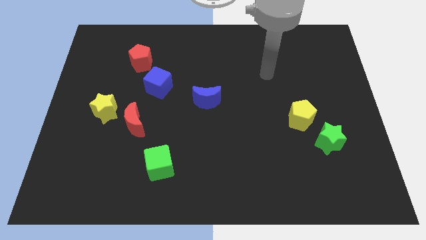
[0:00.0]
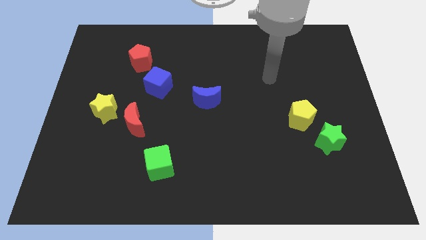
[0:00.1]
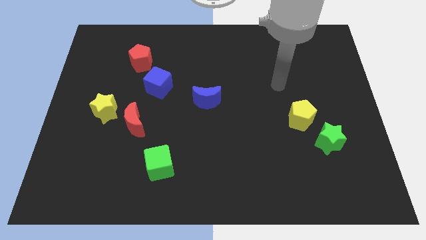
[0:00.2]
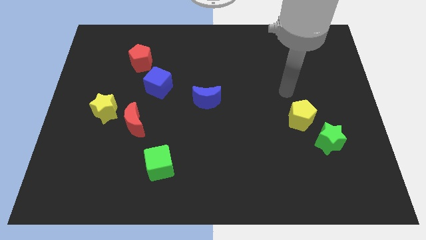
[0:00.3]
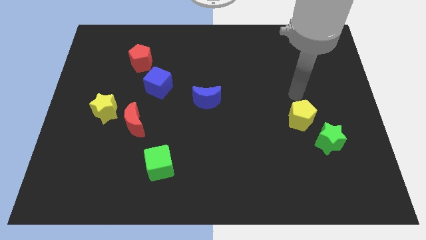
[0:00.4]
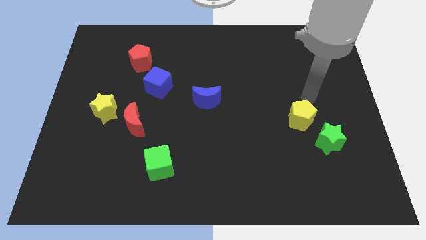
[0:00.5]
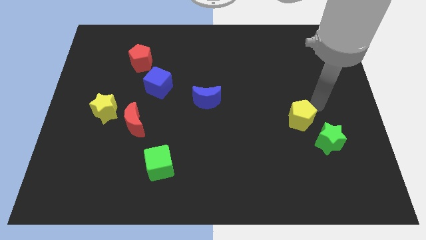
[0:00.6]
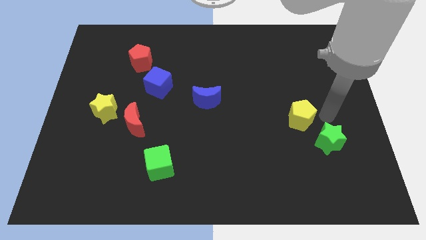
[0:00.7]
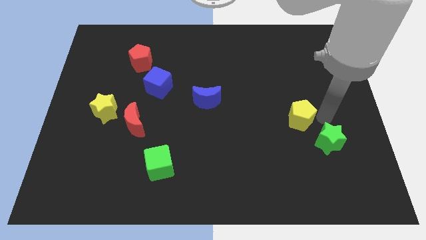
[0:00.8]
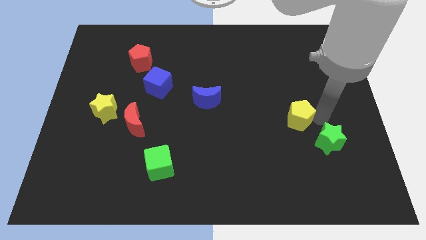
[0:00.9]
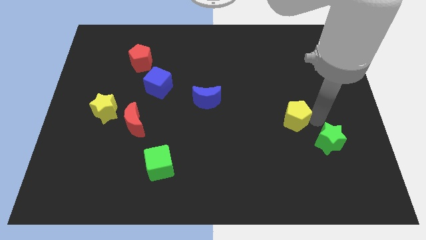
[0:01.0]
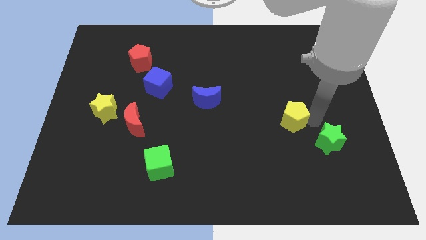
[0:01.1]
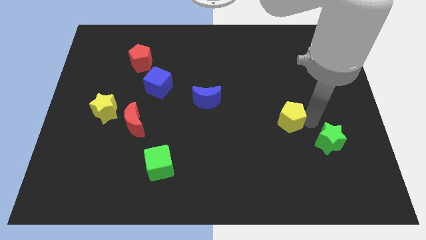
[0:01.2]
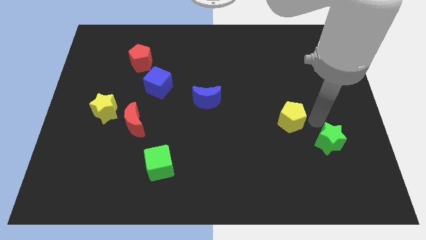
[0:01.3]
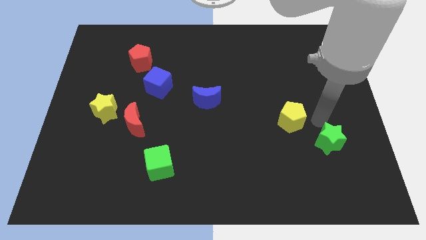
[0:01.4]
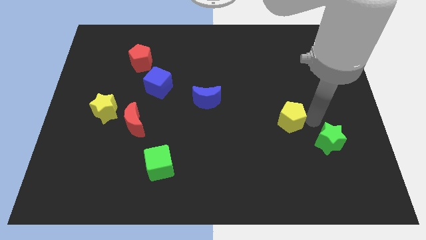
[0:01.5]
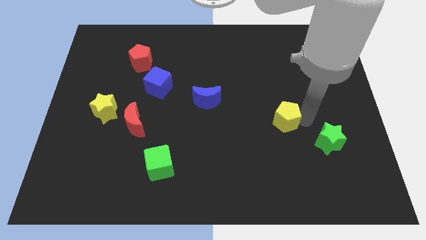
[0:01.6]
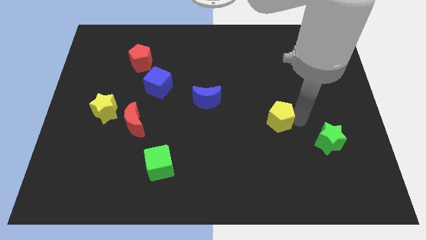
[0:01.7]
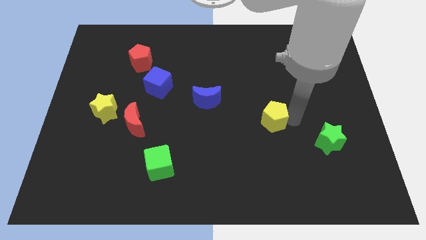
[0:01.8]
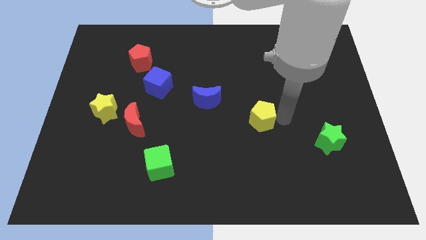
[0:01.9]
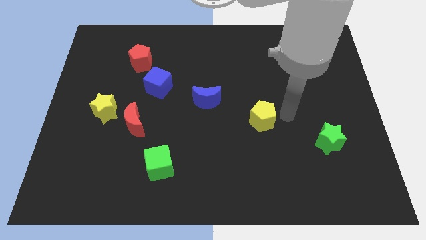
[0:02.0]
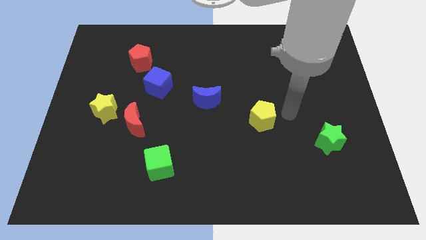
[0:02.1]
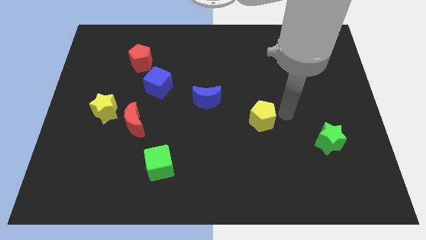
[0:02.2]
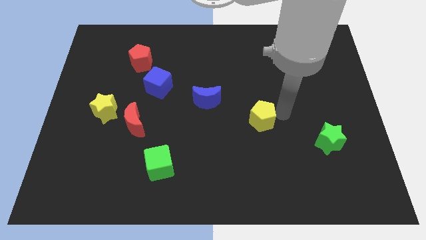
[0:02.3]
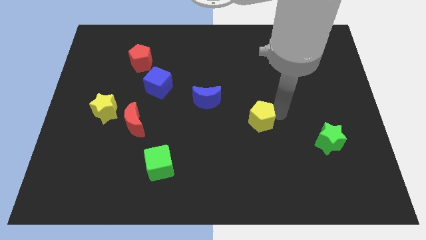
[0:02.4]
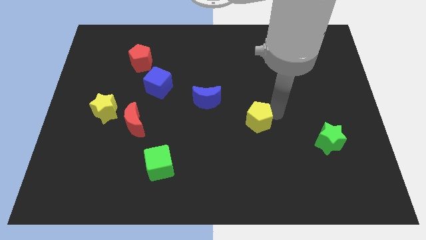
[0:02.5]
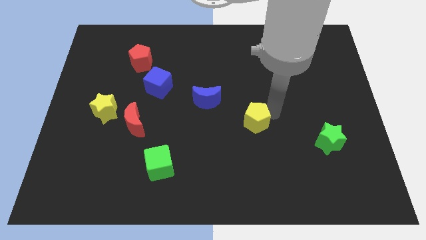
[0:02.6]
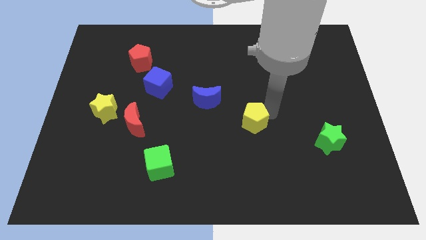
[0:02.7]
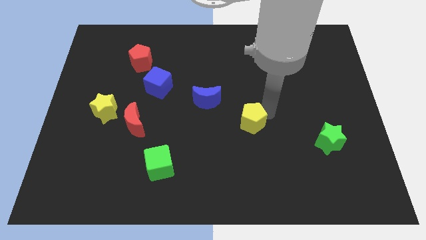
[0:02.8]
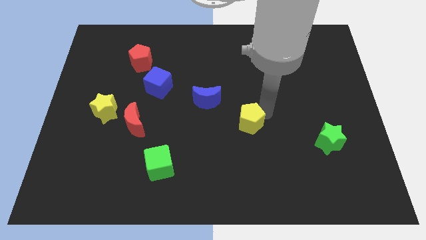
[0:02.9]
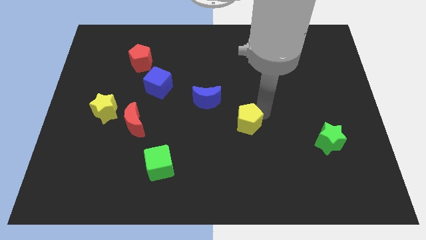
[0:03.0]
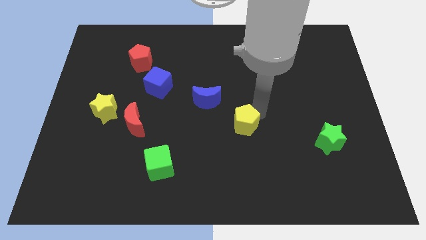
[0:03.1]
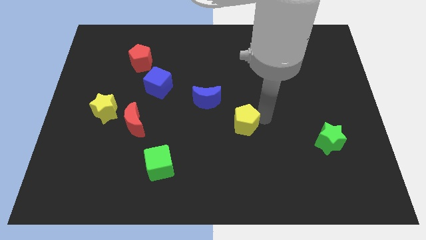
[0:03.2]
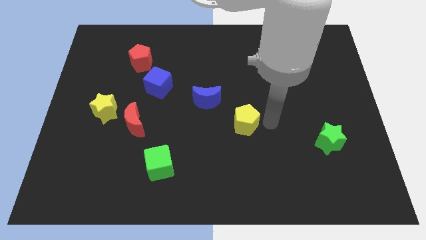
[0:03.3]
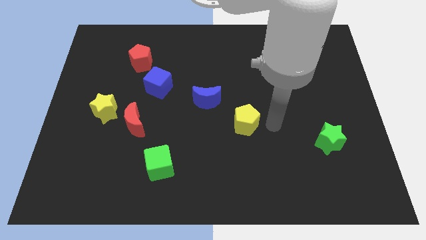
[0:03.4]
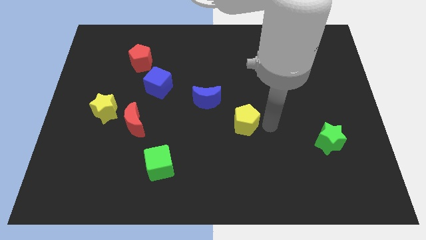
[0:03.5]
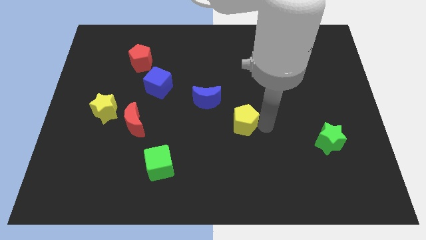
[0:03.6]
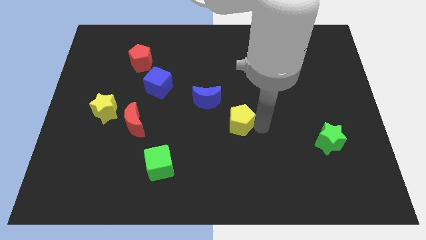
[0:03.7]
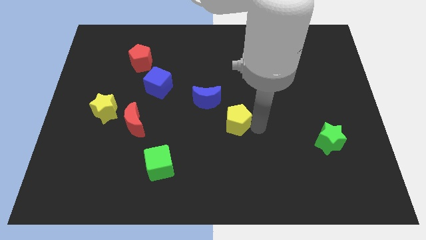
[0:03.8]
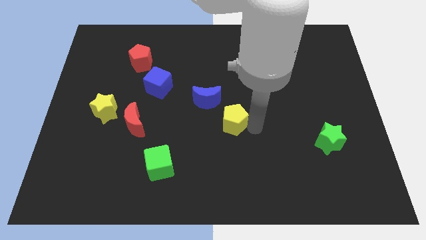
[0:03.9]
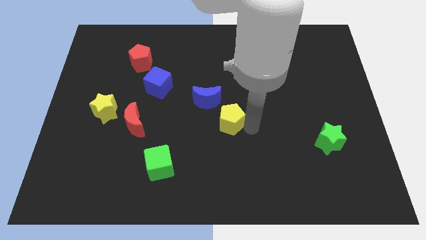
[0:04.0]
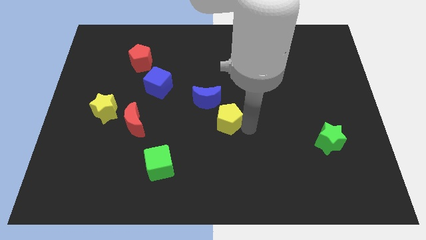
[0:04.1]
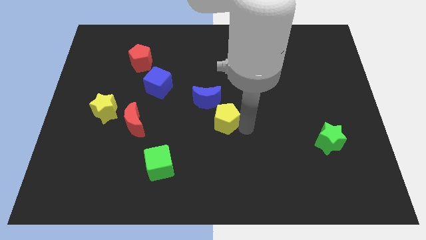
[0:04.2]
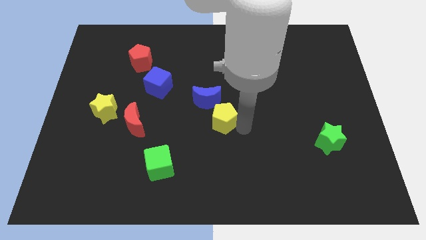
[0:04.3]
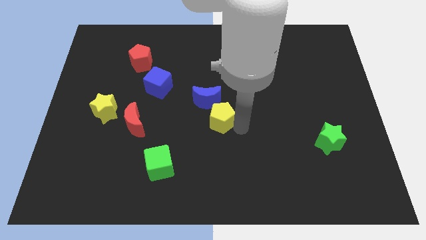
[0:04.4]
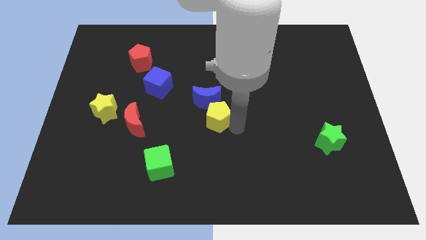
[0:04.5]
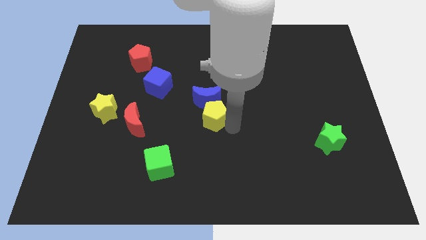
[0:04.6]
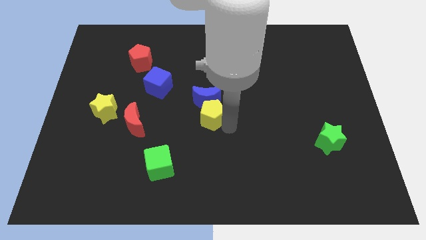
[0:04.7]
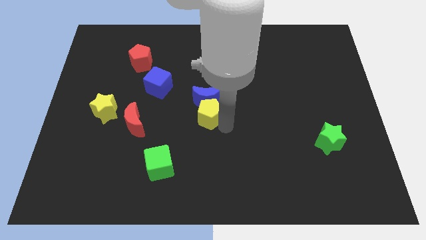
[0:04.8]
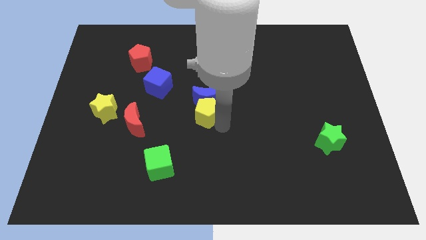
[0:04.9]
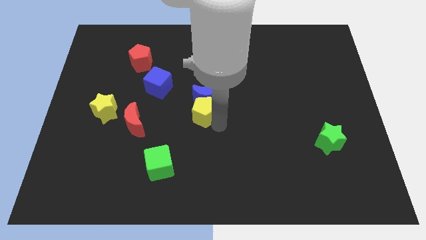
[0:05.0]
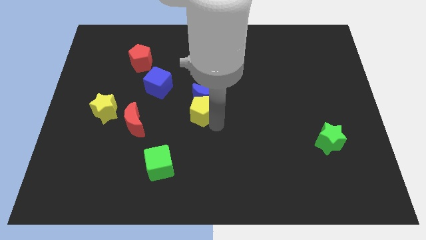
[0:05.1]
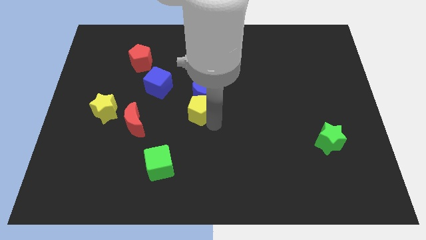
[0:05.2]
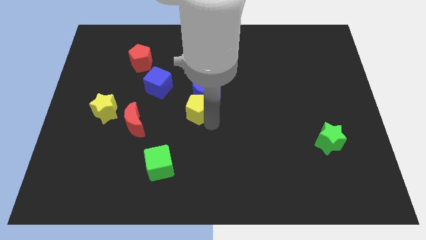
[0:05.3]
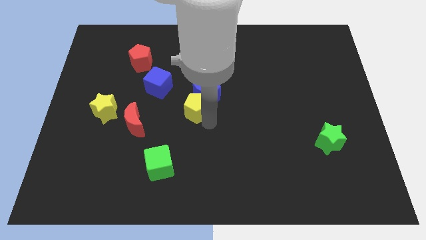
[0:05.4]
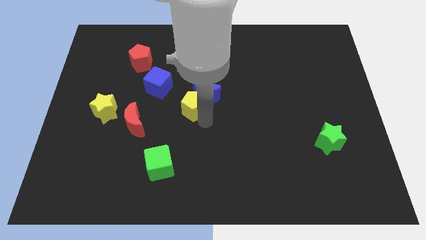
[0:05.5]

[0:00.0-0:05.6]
slide the yellow pentagon to the left side of the blue moon

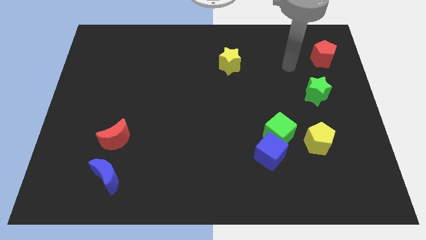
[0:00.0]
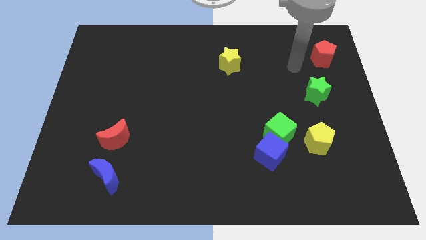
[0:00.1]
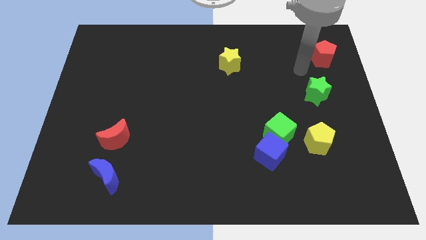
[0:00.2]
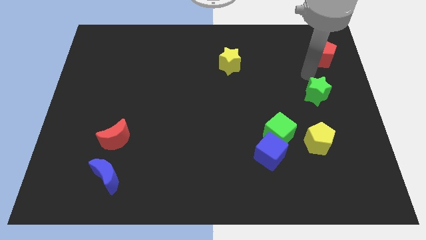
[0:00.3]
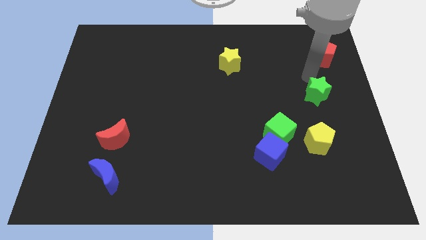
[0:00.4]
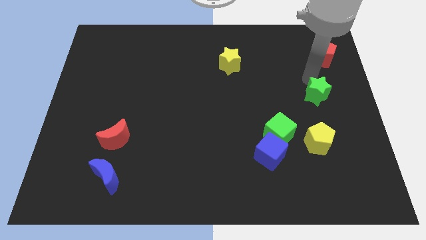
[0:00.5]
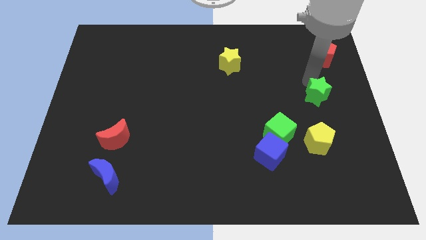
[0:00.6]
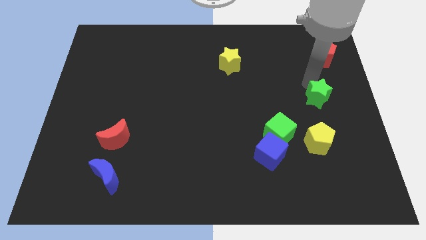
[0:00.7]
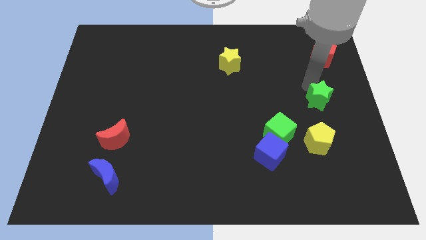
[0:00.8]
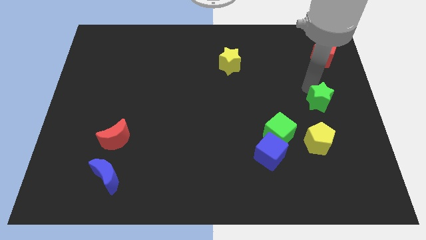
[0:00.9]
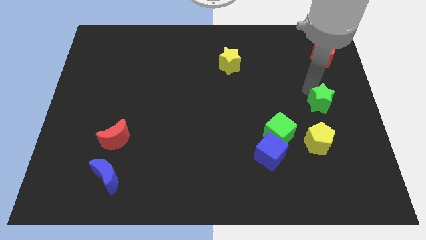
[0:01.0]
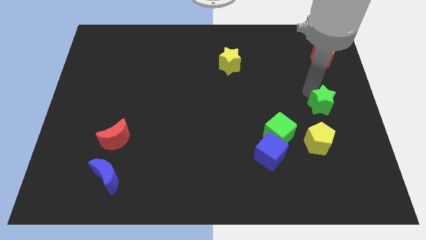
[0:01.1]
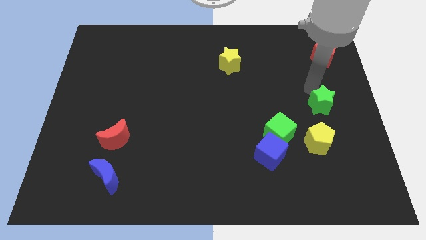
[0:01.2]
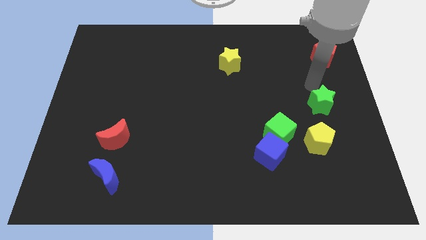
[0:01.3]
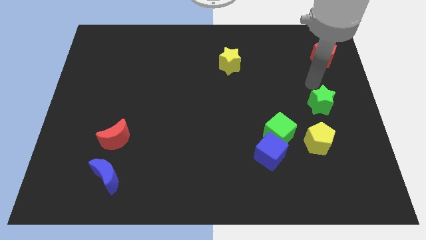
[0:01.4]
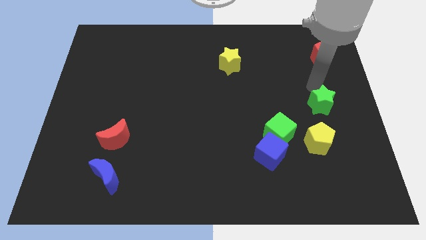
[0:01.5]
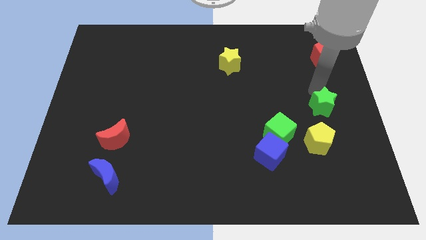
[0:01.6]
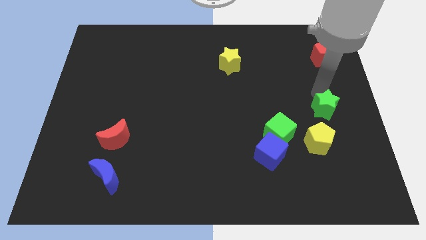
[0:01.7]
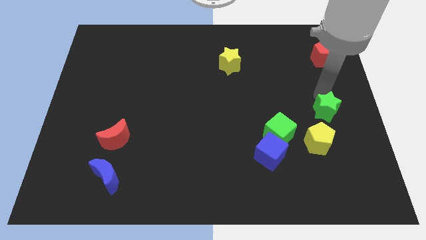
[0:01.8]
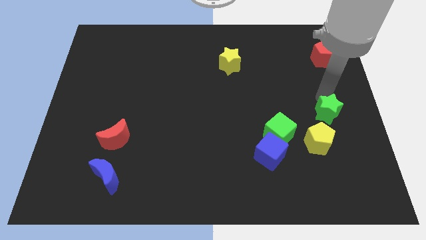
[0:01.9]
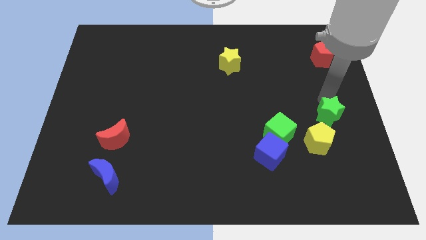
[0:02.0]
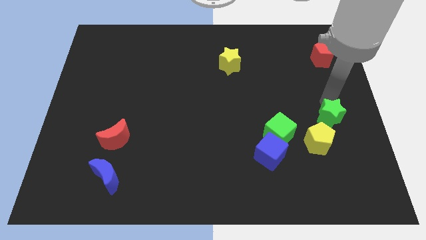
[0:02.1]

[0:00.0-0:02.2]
move the green star to the right of the green cube
